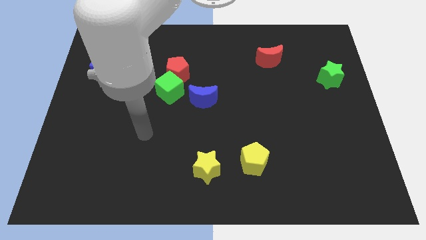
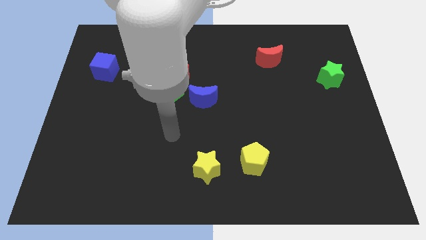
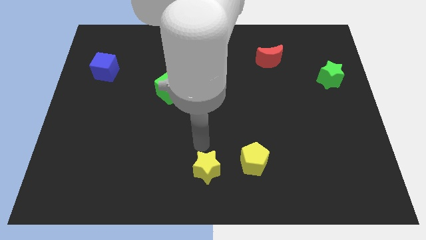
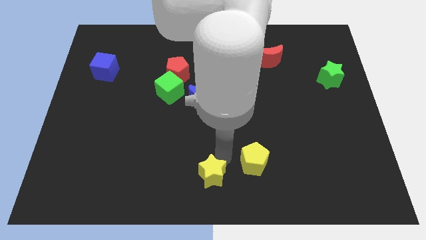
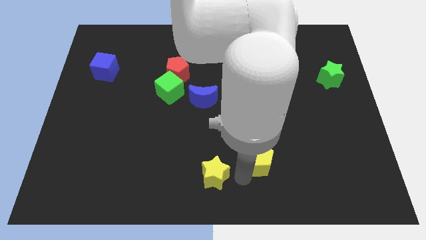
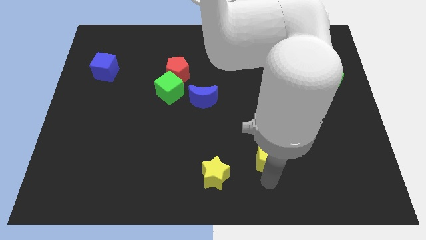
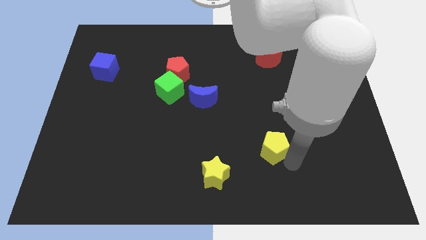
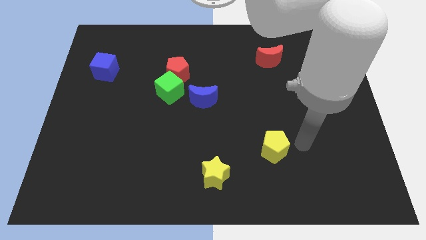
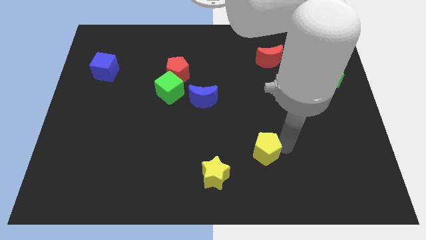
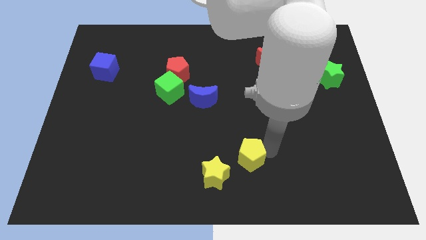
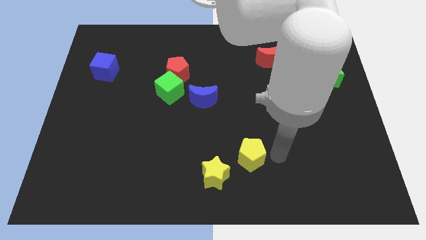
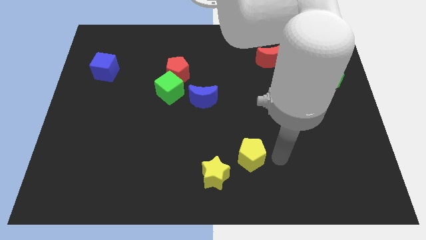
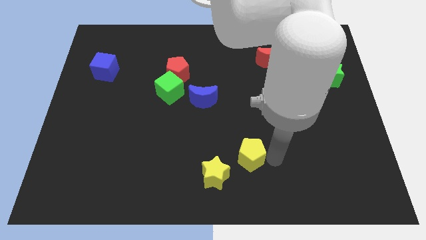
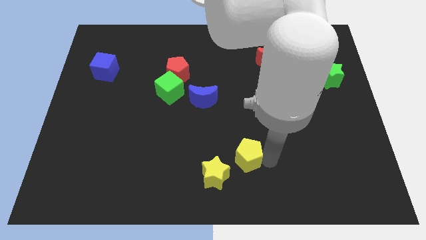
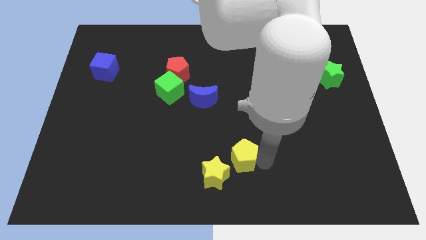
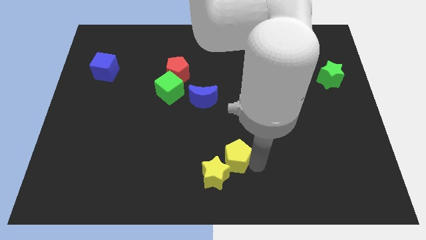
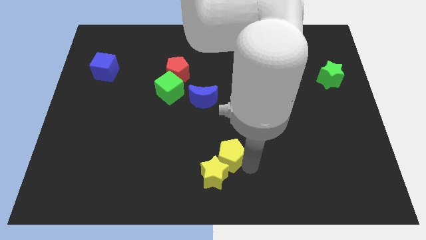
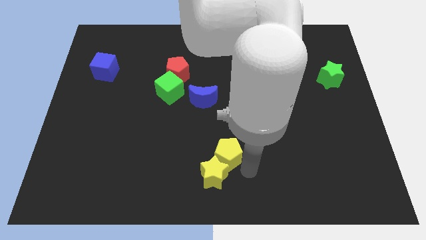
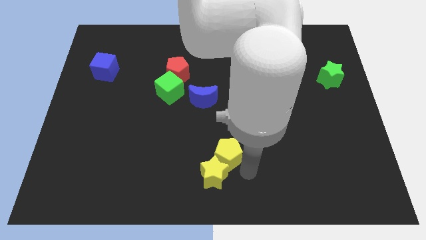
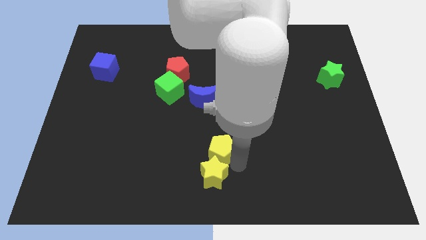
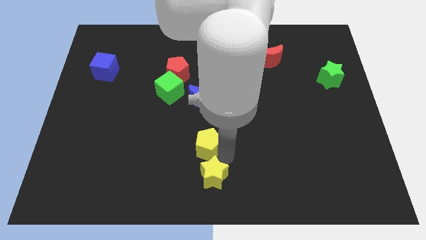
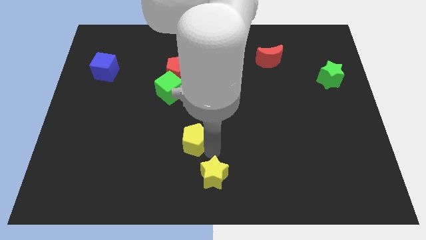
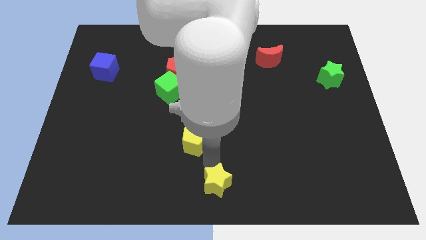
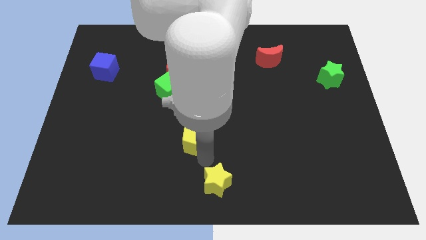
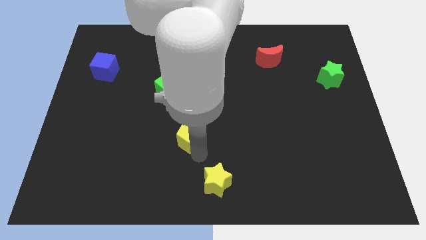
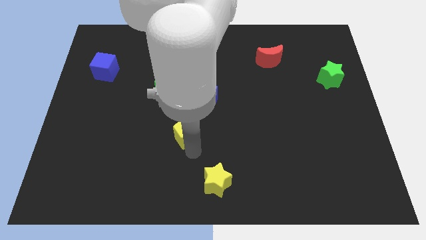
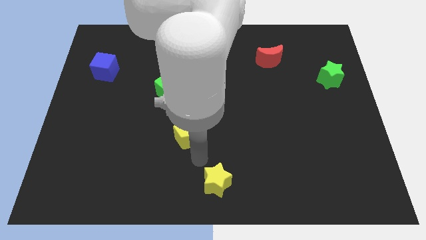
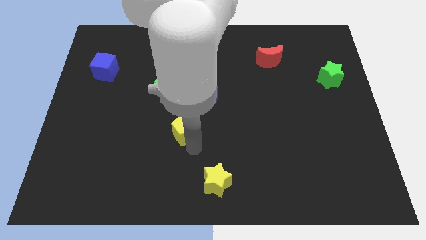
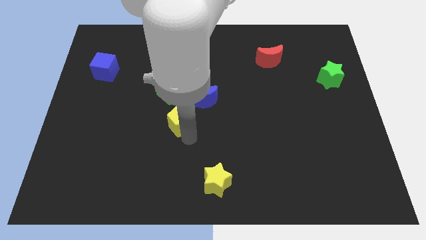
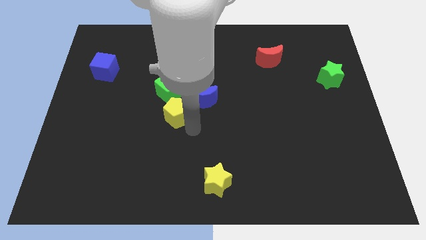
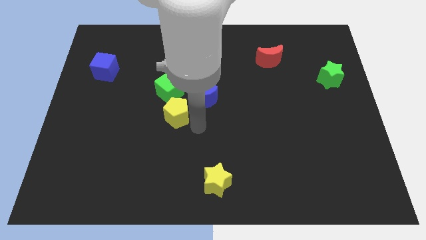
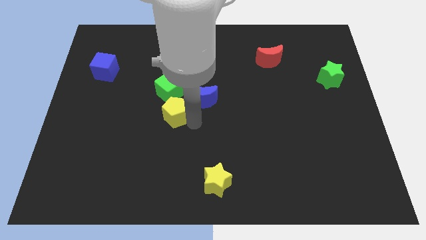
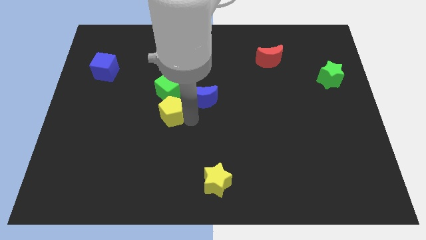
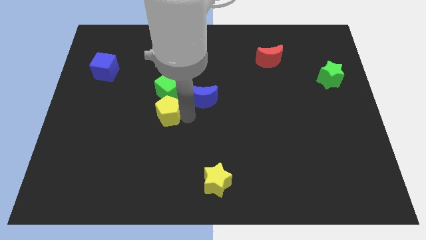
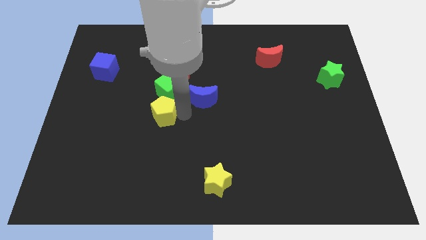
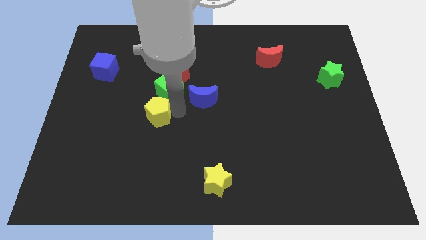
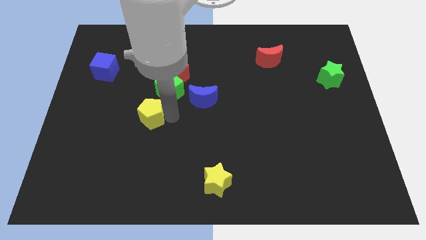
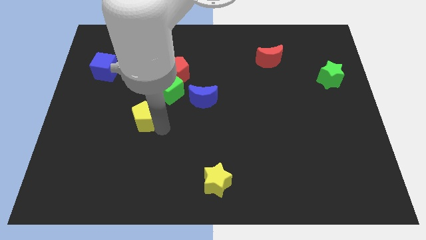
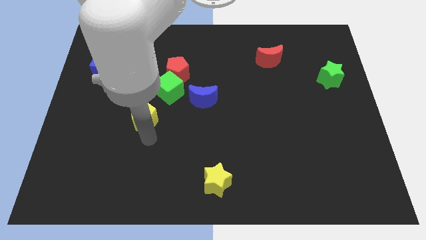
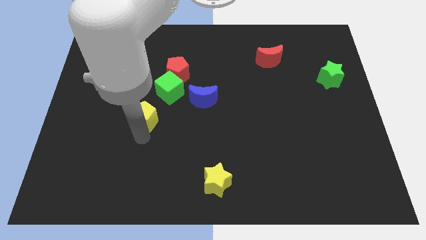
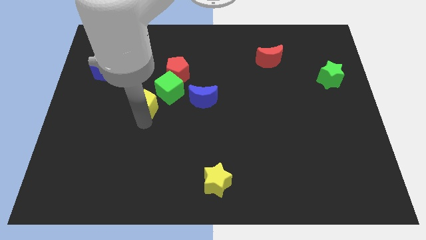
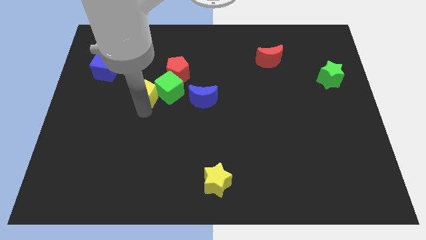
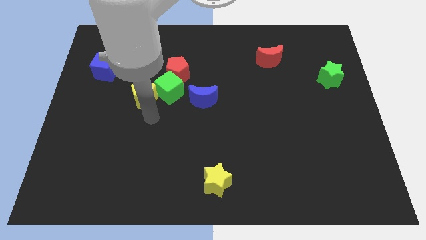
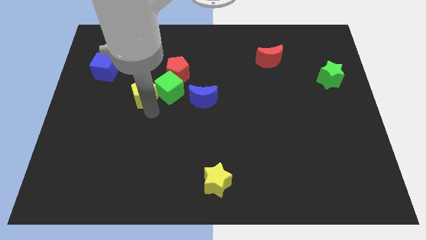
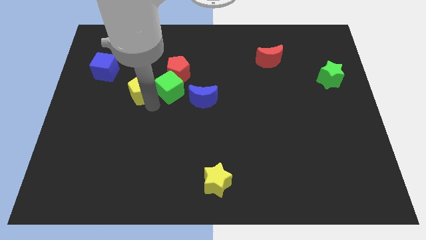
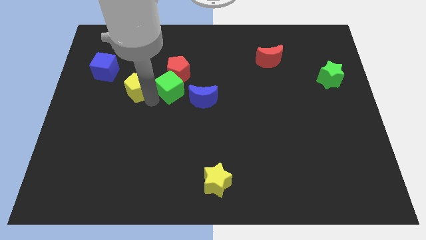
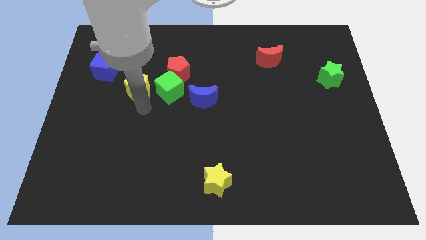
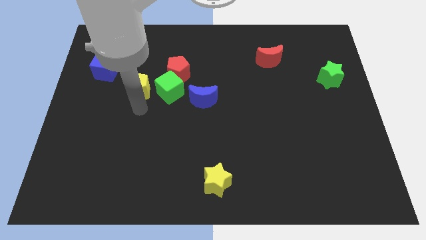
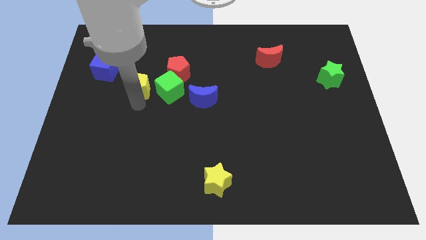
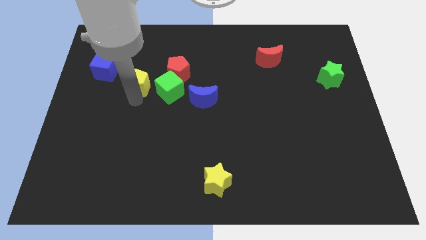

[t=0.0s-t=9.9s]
push the yellow pentagon just left of the red pentagon

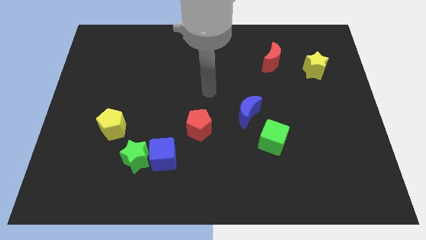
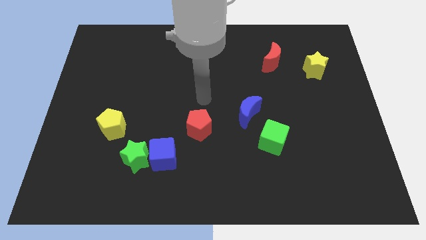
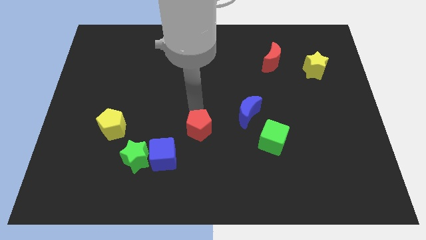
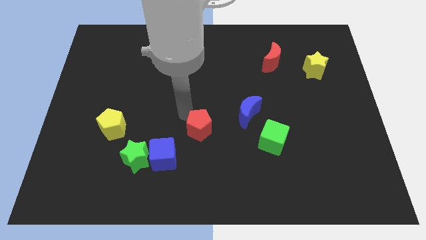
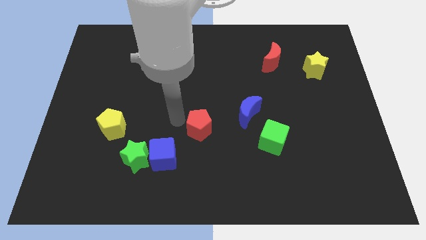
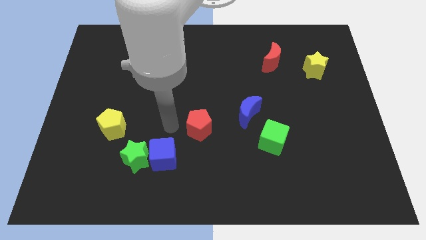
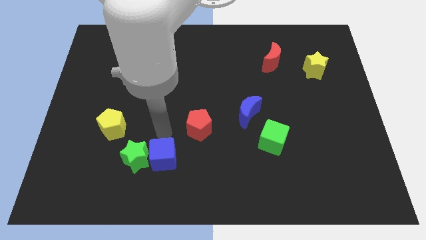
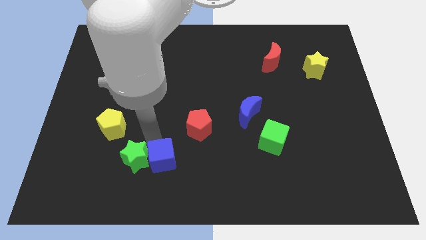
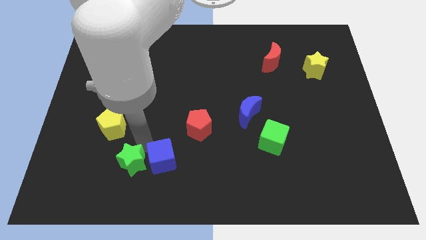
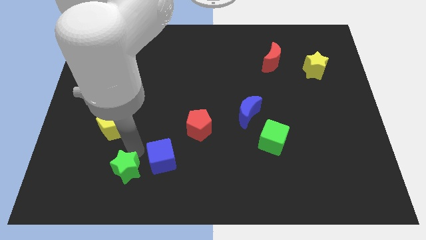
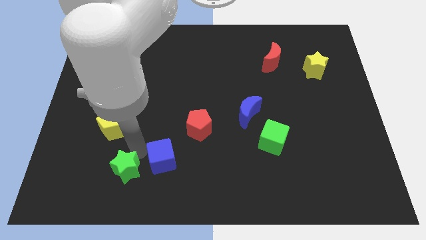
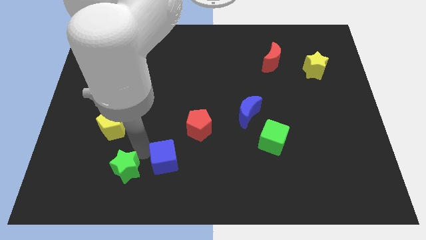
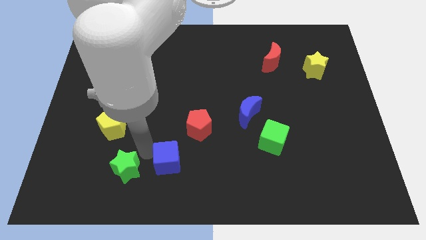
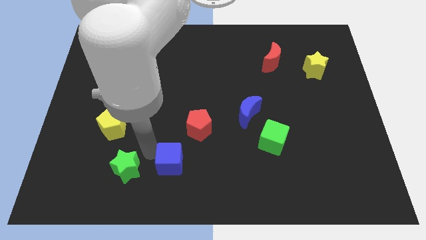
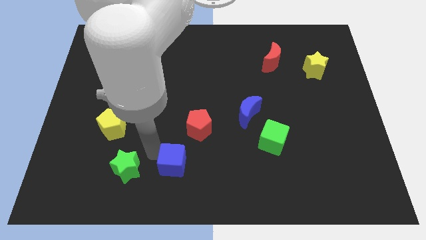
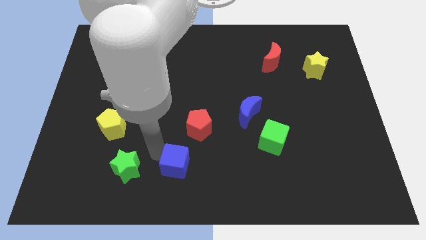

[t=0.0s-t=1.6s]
put the blue cube to the bottom side of the red pentagon
